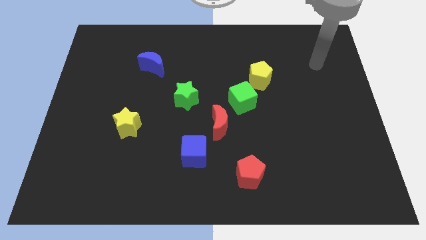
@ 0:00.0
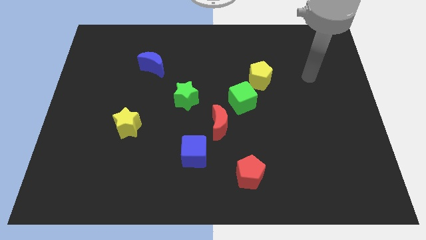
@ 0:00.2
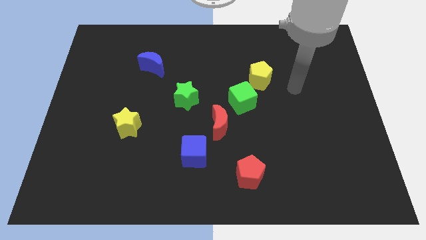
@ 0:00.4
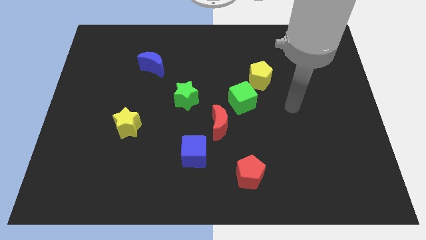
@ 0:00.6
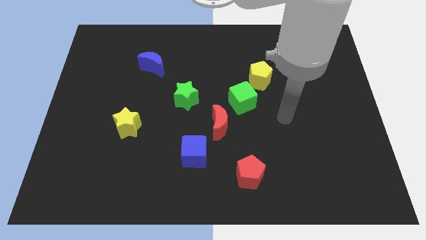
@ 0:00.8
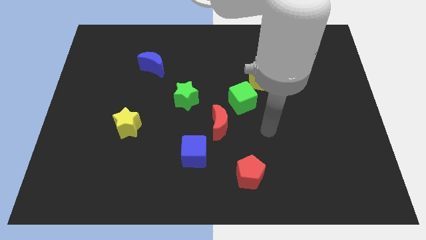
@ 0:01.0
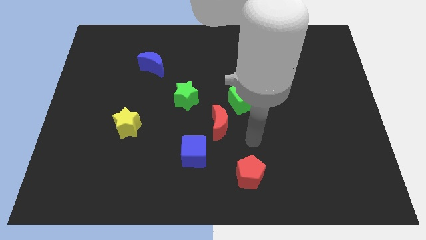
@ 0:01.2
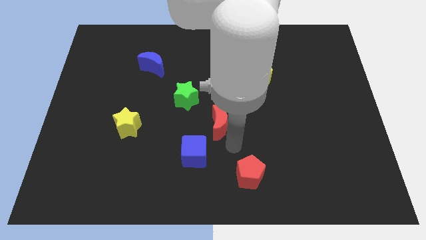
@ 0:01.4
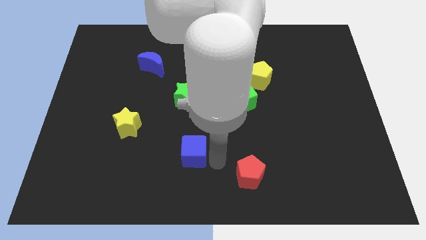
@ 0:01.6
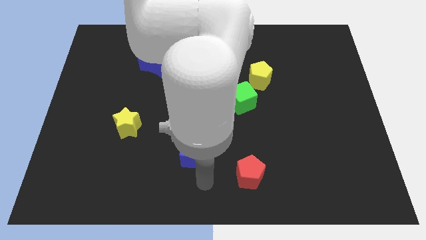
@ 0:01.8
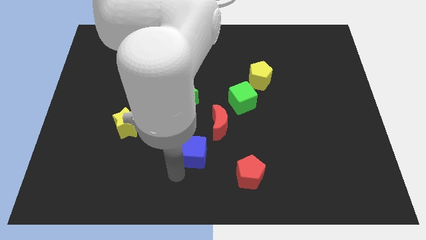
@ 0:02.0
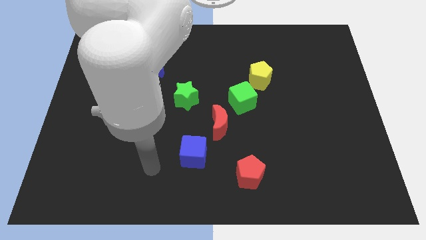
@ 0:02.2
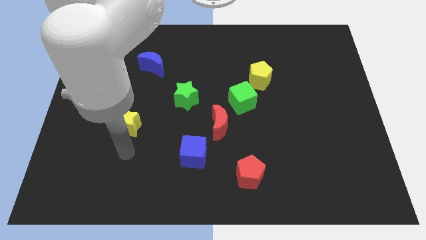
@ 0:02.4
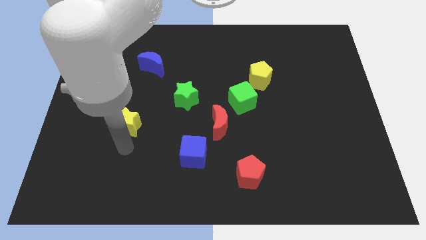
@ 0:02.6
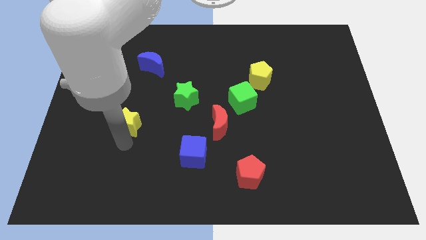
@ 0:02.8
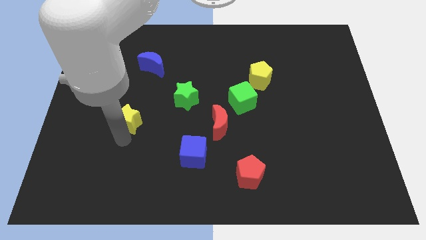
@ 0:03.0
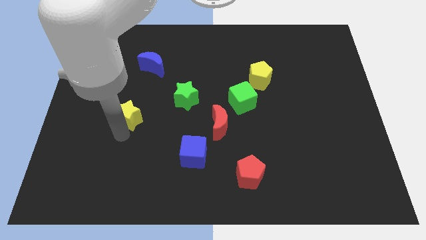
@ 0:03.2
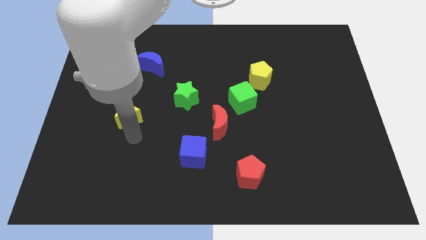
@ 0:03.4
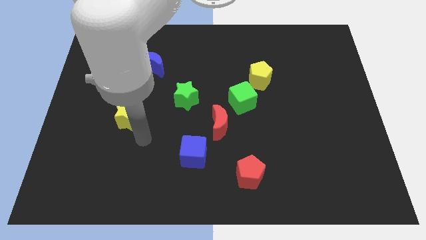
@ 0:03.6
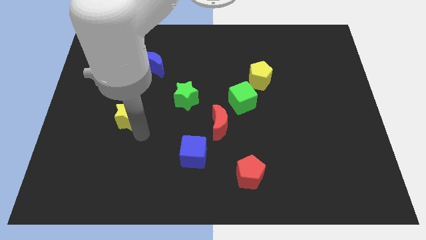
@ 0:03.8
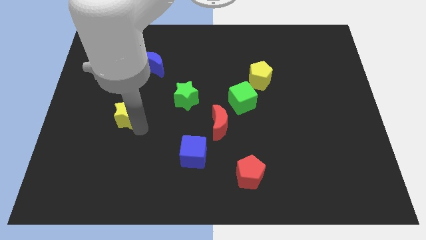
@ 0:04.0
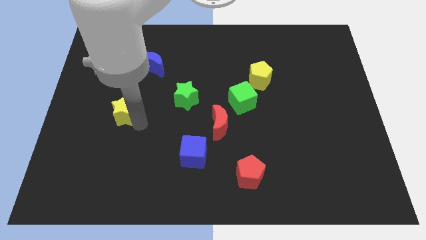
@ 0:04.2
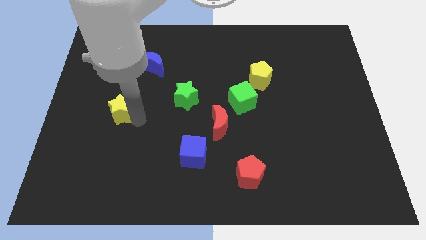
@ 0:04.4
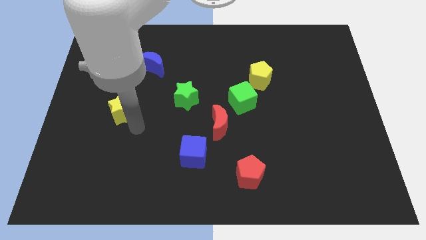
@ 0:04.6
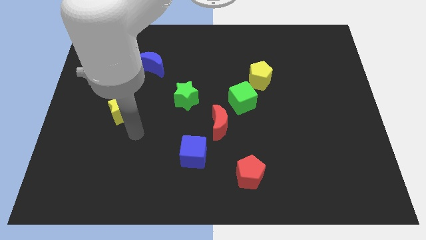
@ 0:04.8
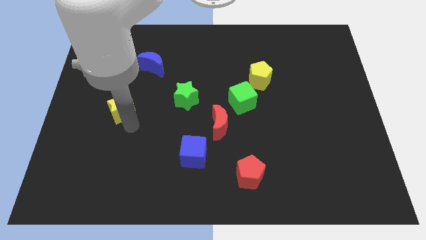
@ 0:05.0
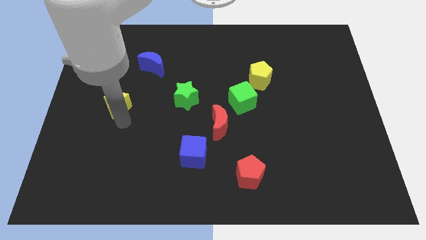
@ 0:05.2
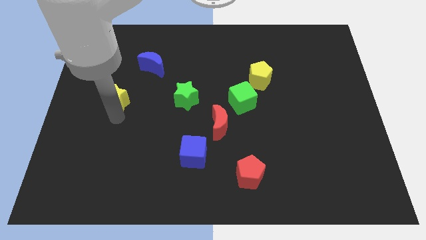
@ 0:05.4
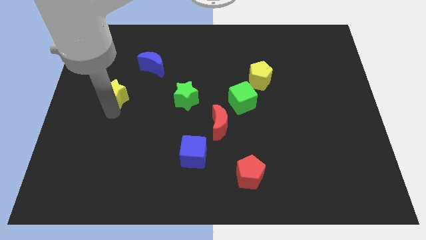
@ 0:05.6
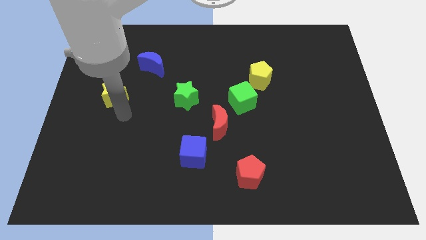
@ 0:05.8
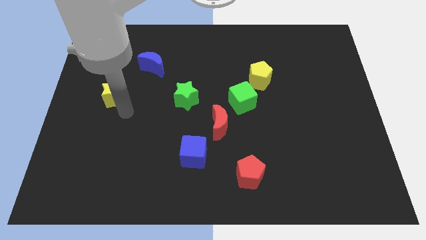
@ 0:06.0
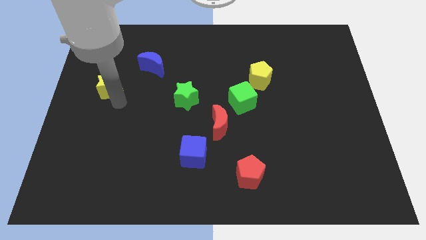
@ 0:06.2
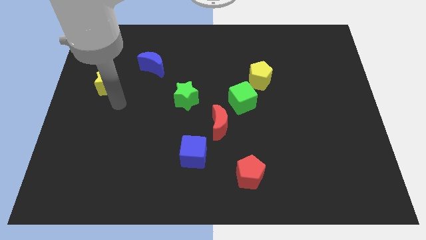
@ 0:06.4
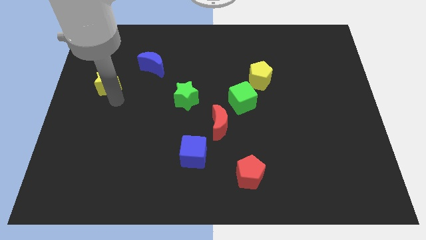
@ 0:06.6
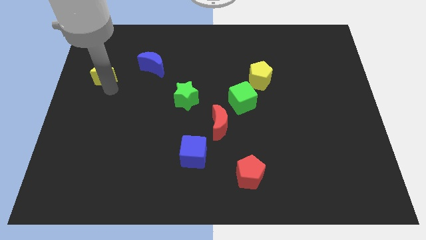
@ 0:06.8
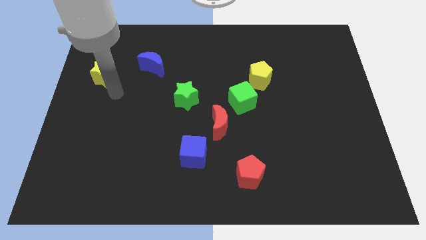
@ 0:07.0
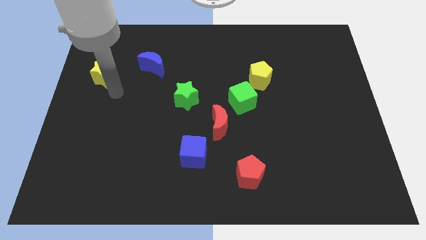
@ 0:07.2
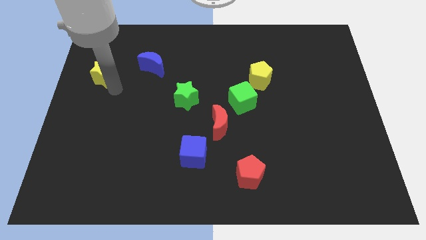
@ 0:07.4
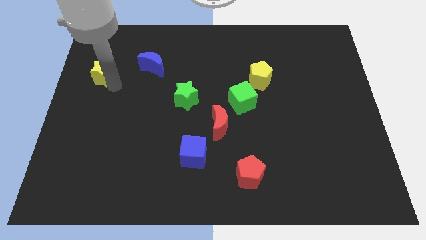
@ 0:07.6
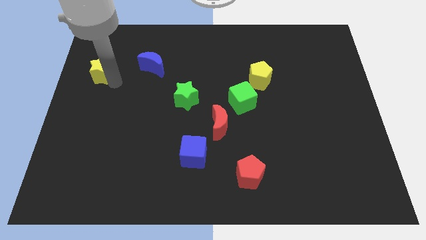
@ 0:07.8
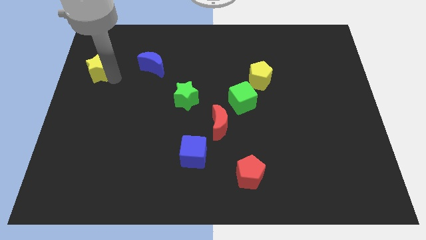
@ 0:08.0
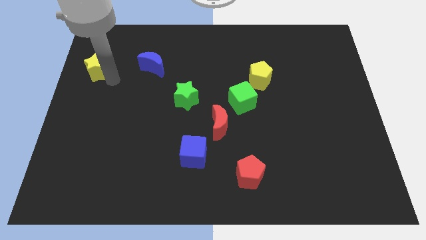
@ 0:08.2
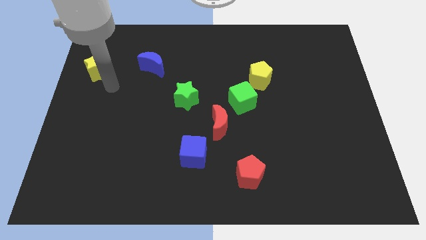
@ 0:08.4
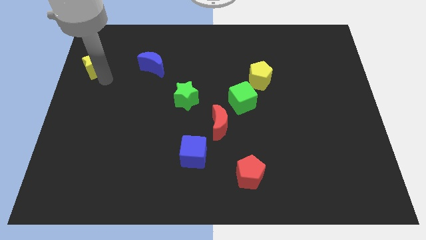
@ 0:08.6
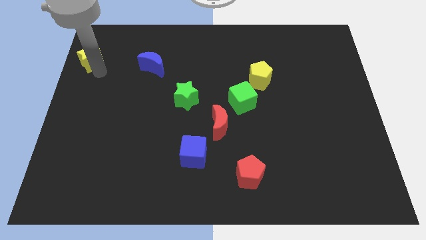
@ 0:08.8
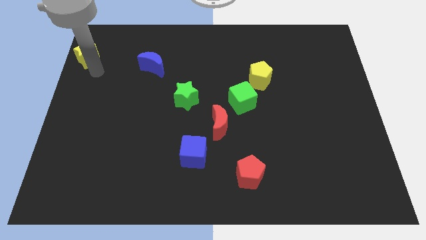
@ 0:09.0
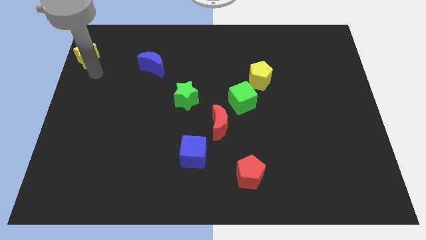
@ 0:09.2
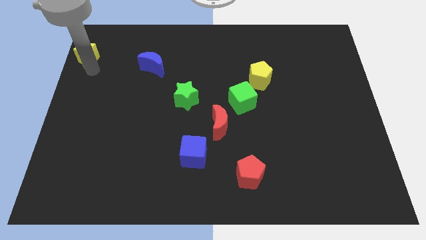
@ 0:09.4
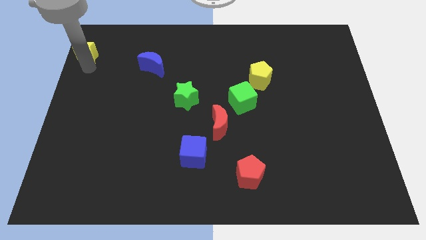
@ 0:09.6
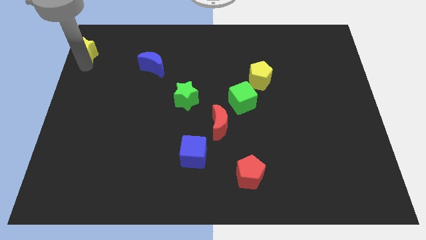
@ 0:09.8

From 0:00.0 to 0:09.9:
put the yellow star to the top left corner

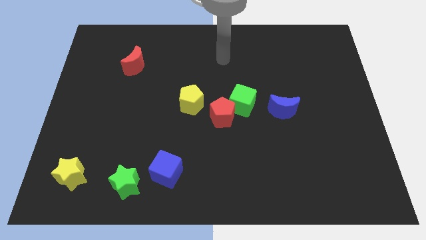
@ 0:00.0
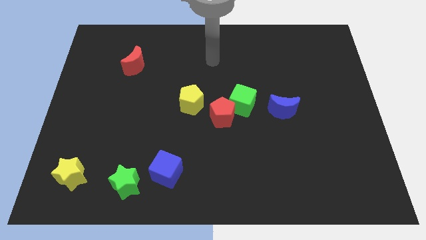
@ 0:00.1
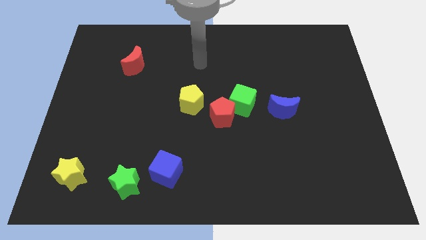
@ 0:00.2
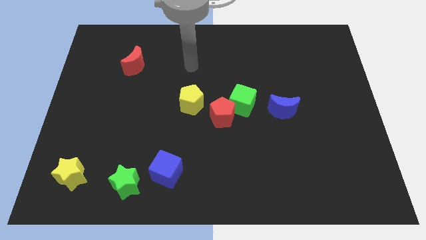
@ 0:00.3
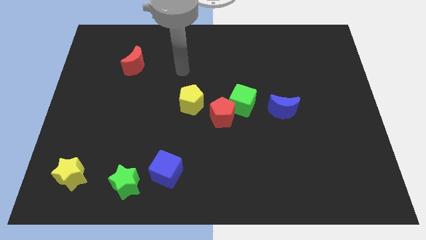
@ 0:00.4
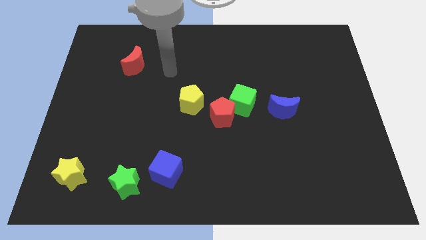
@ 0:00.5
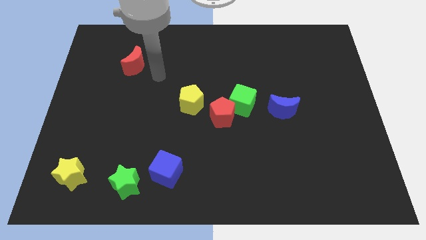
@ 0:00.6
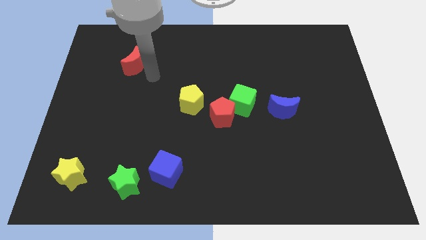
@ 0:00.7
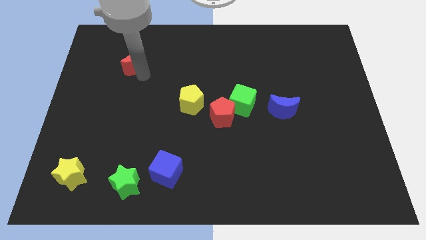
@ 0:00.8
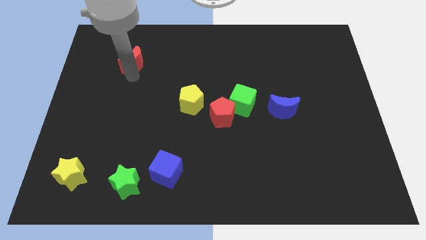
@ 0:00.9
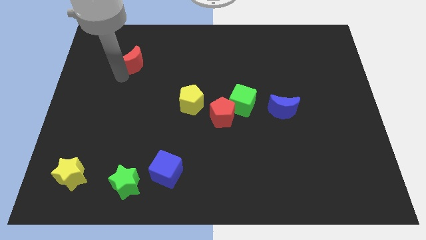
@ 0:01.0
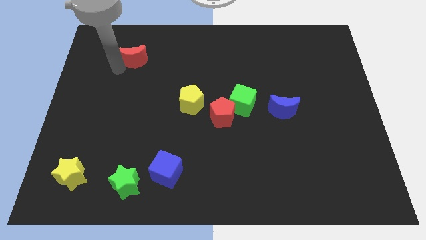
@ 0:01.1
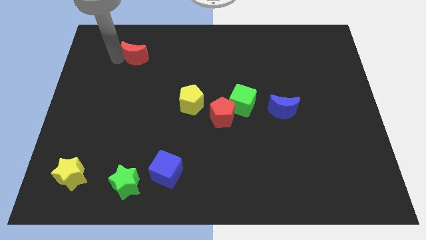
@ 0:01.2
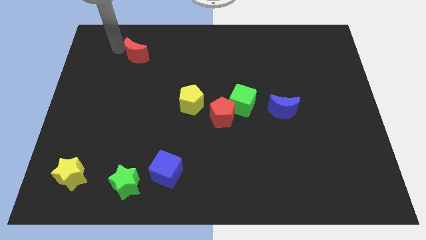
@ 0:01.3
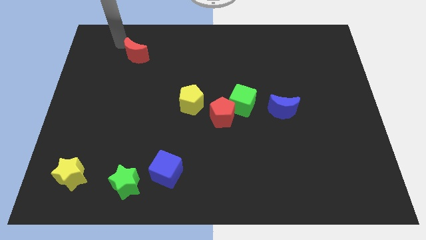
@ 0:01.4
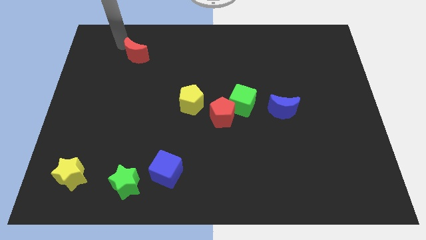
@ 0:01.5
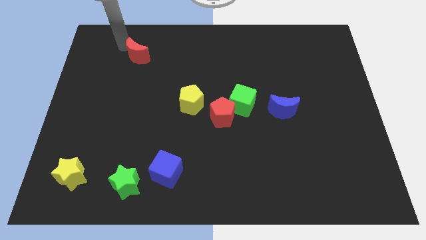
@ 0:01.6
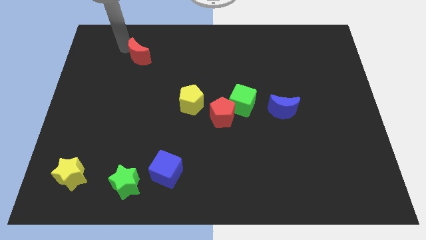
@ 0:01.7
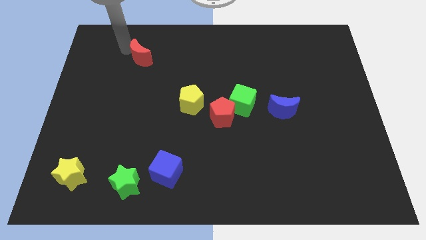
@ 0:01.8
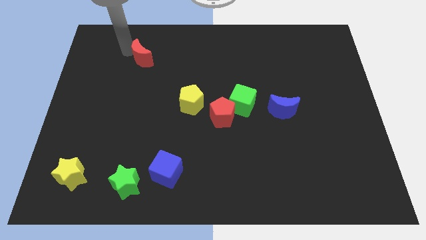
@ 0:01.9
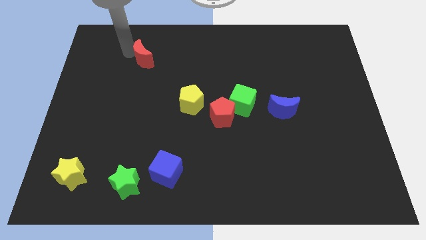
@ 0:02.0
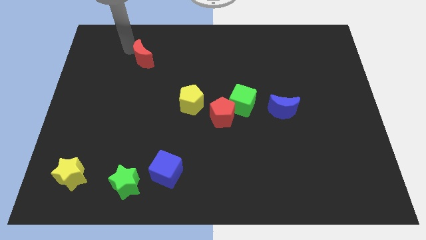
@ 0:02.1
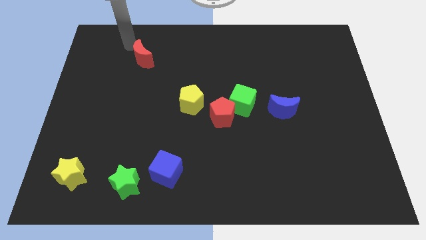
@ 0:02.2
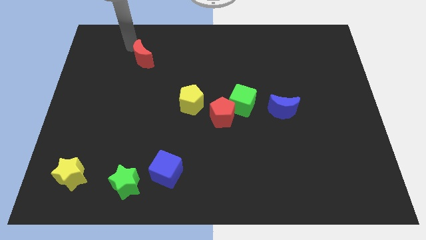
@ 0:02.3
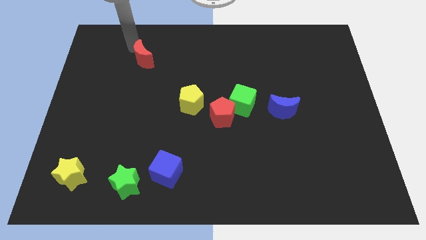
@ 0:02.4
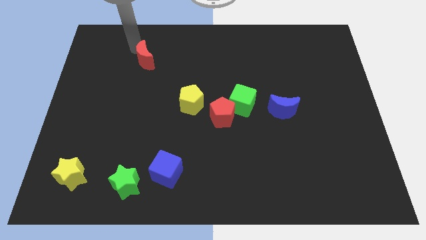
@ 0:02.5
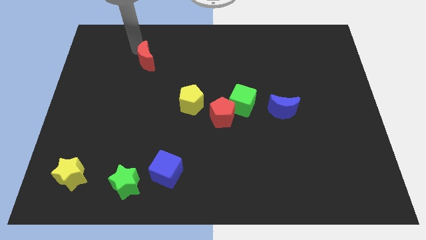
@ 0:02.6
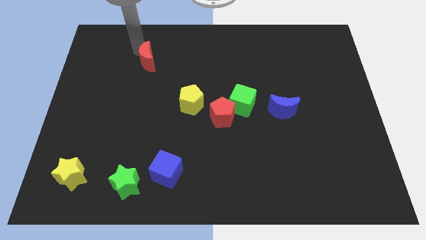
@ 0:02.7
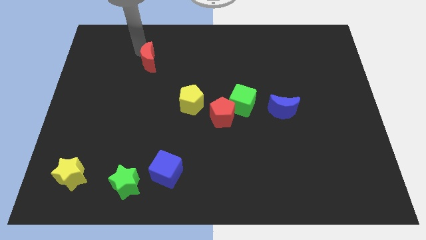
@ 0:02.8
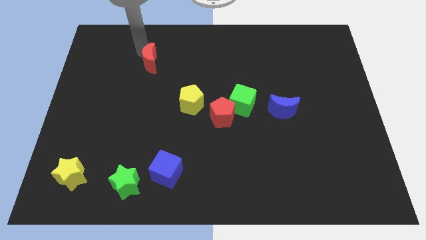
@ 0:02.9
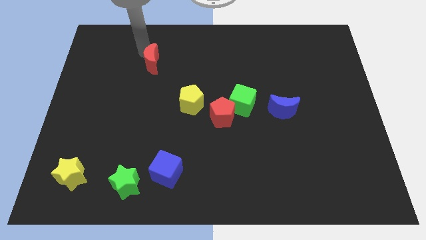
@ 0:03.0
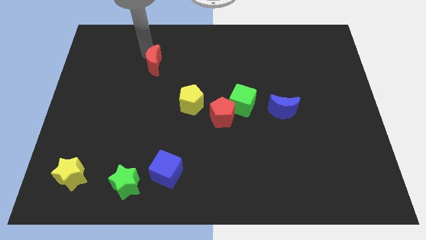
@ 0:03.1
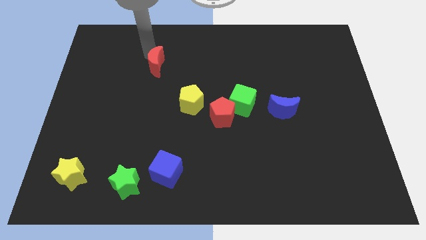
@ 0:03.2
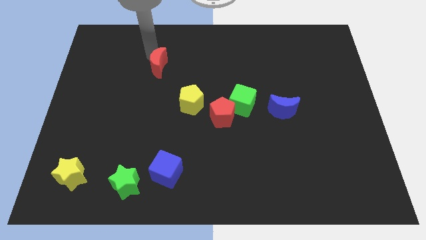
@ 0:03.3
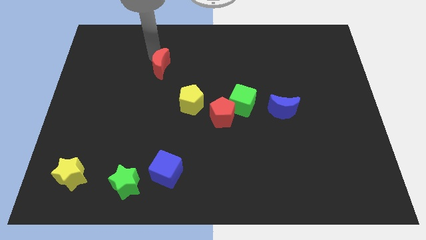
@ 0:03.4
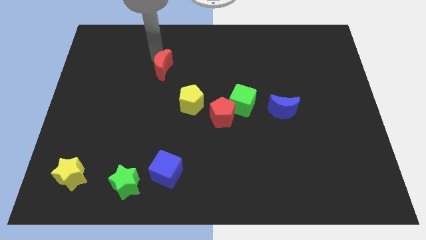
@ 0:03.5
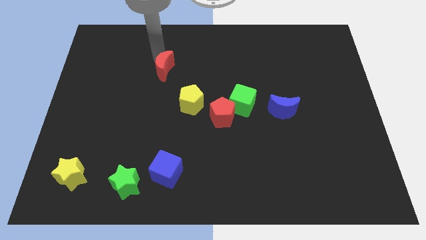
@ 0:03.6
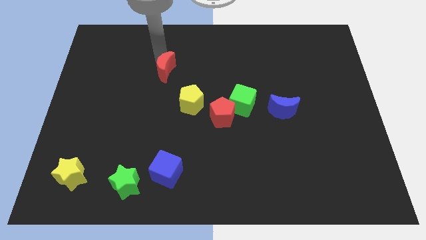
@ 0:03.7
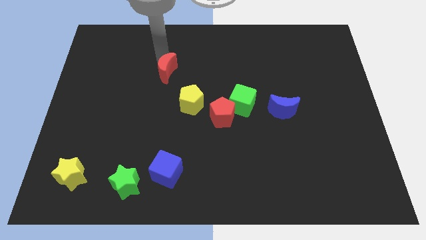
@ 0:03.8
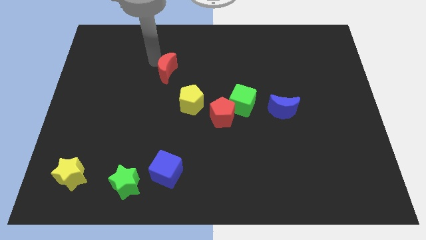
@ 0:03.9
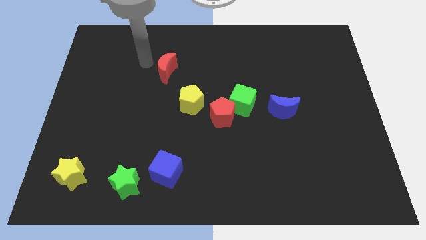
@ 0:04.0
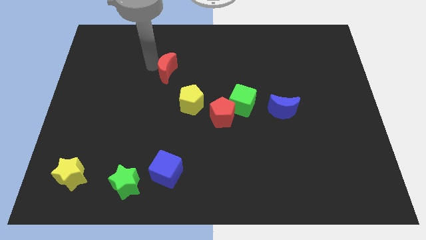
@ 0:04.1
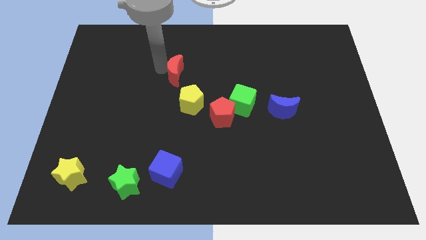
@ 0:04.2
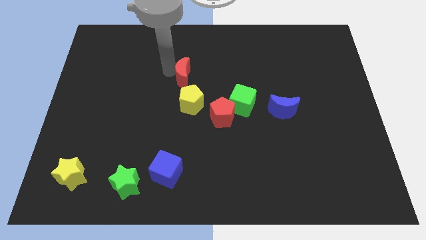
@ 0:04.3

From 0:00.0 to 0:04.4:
slide the red moon to the middle of the board
